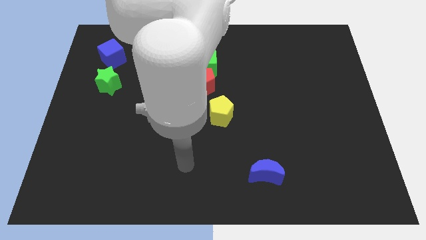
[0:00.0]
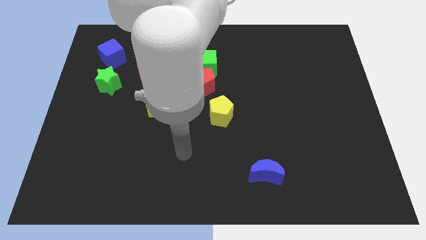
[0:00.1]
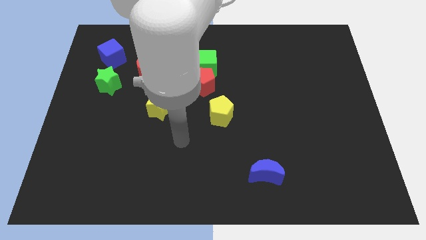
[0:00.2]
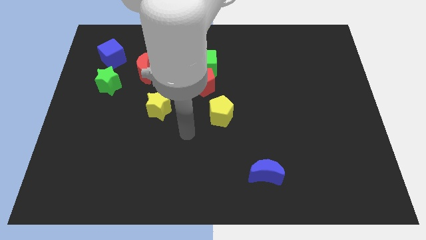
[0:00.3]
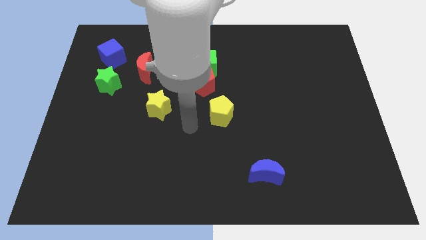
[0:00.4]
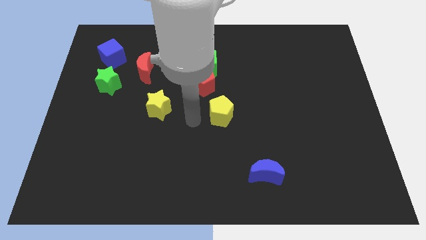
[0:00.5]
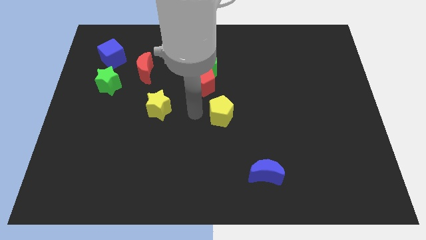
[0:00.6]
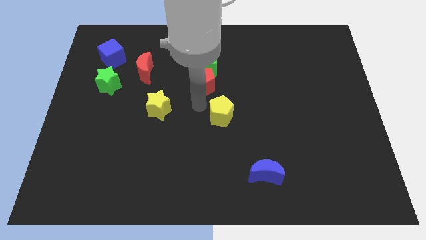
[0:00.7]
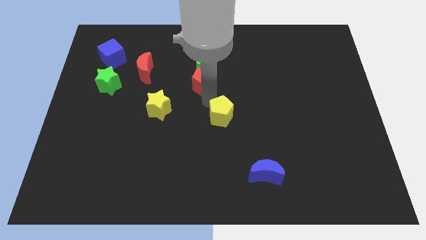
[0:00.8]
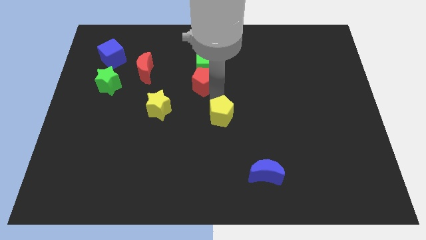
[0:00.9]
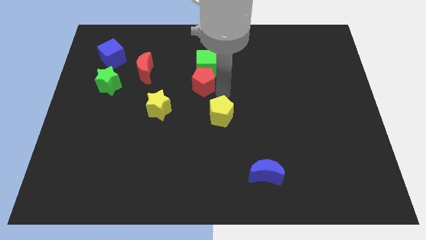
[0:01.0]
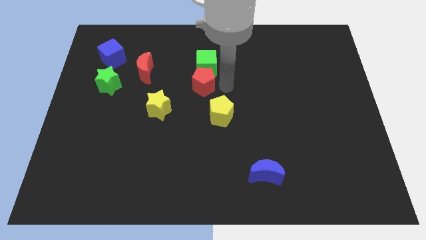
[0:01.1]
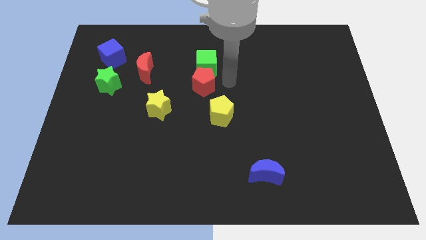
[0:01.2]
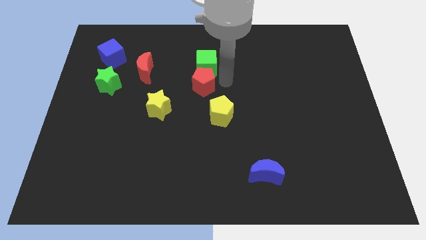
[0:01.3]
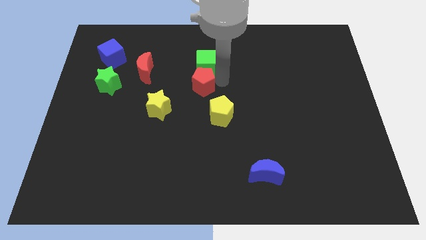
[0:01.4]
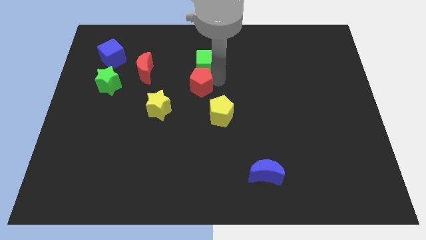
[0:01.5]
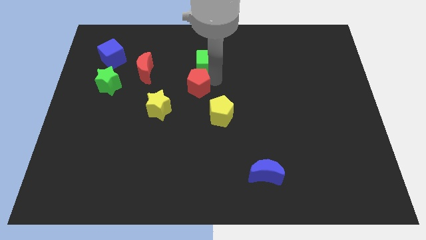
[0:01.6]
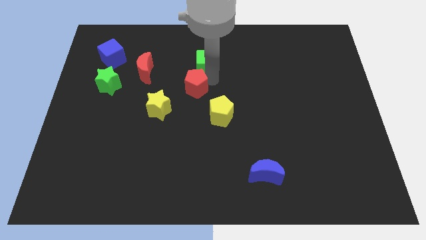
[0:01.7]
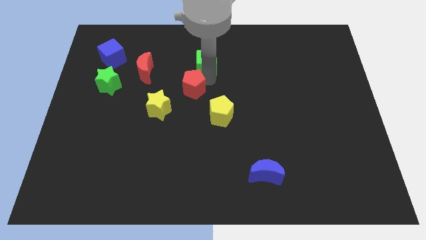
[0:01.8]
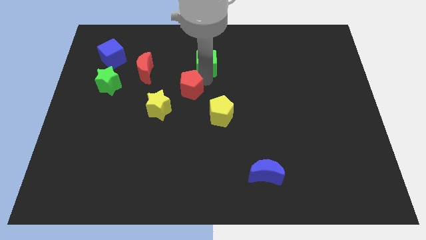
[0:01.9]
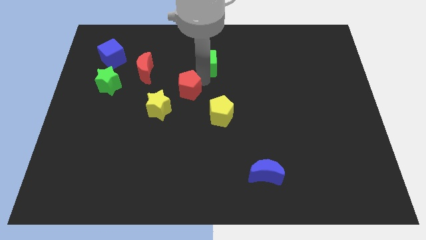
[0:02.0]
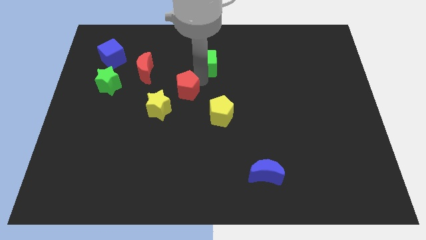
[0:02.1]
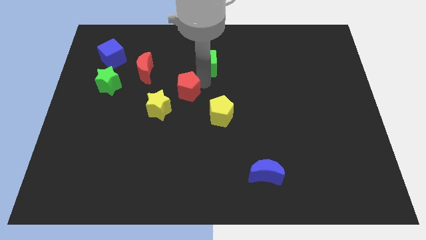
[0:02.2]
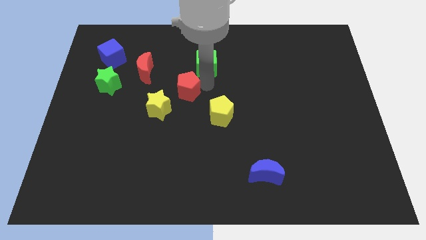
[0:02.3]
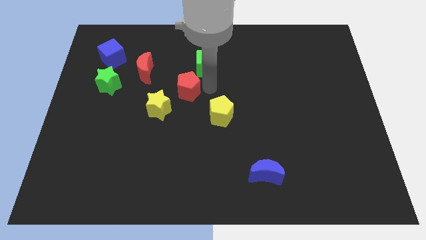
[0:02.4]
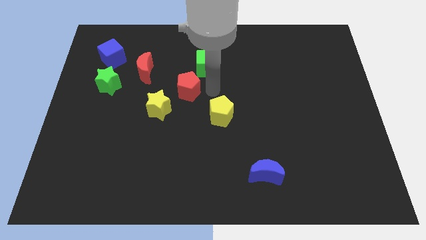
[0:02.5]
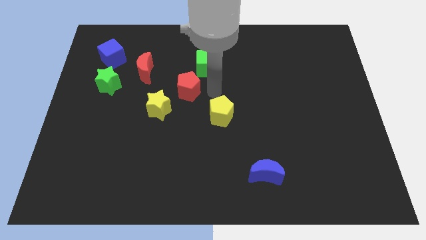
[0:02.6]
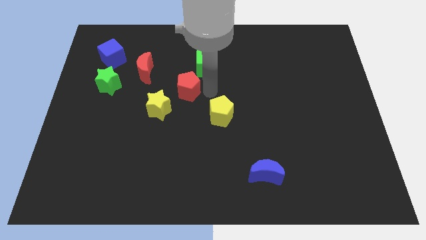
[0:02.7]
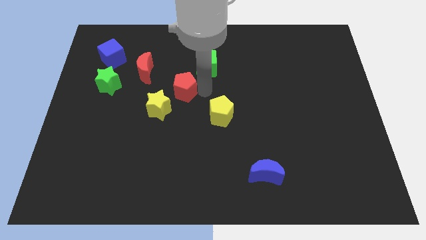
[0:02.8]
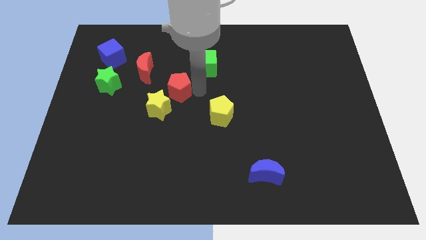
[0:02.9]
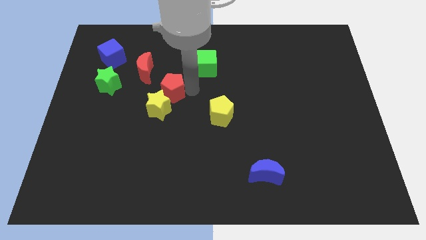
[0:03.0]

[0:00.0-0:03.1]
push the red pentagon left a little bit

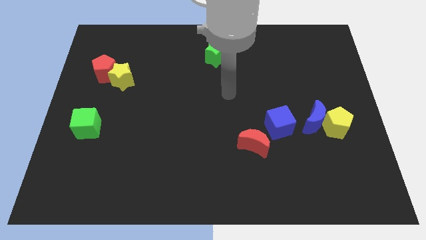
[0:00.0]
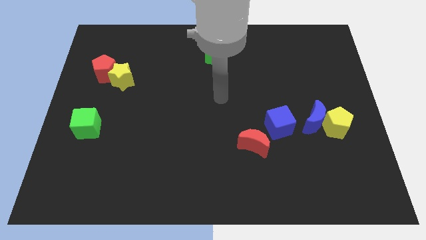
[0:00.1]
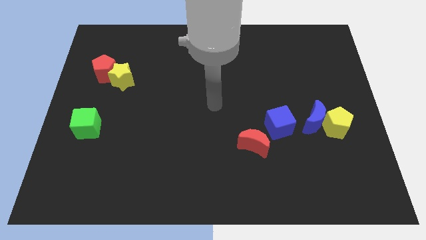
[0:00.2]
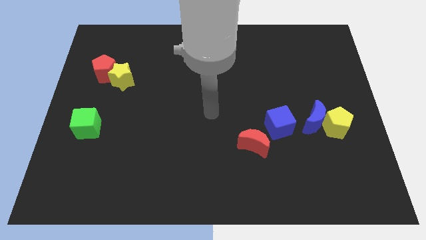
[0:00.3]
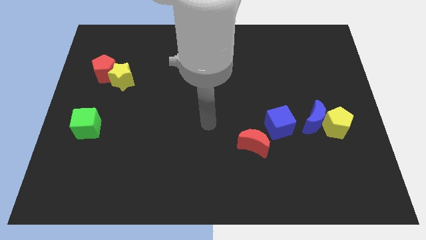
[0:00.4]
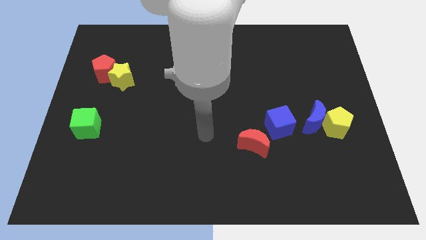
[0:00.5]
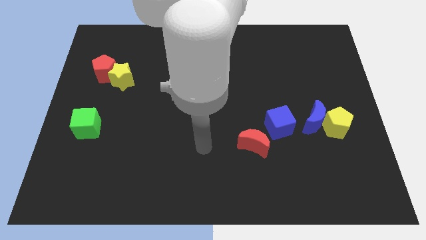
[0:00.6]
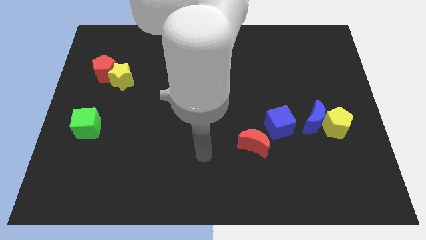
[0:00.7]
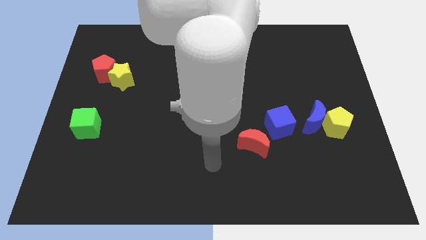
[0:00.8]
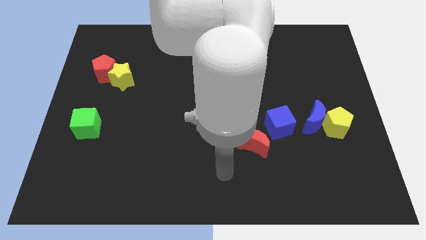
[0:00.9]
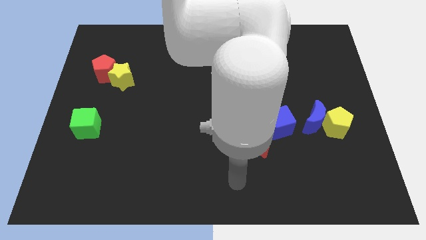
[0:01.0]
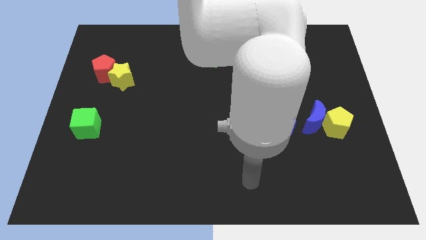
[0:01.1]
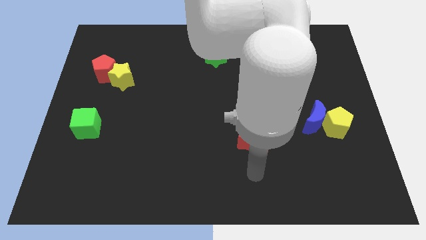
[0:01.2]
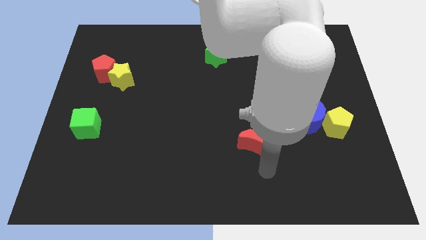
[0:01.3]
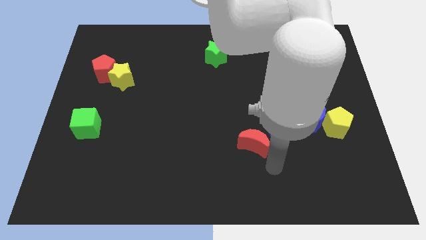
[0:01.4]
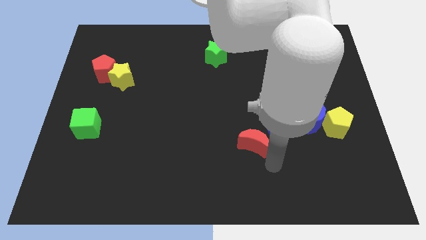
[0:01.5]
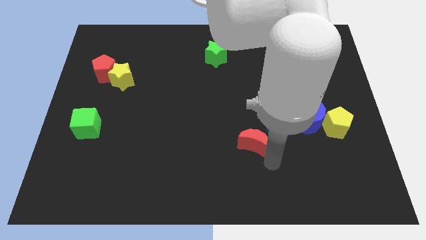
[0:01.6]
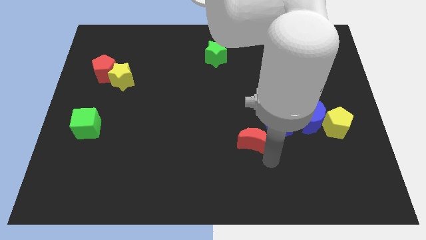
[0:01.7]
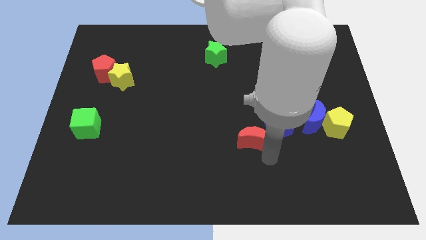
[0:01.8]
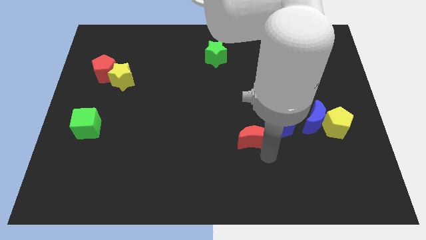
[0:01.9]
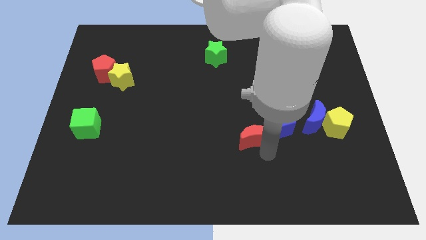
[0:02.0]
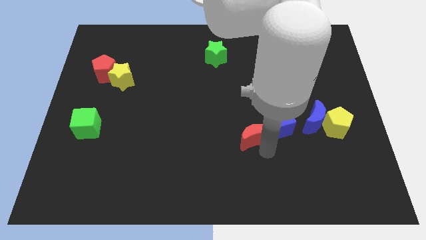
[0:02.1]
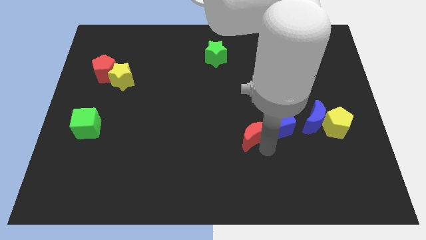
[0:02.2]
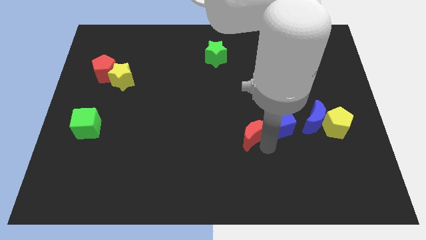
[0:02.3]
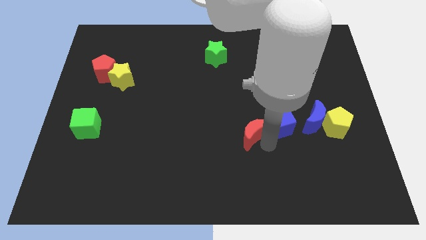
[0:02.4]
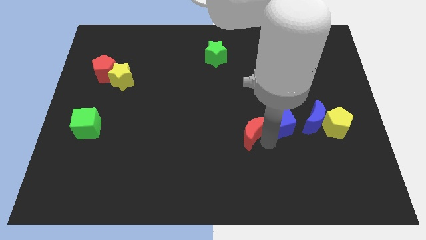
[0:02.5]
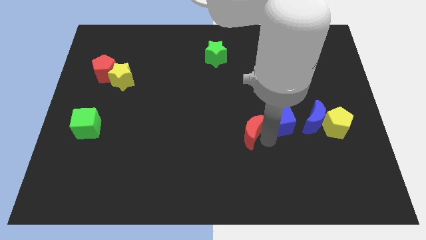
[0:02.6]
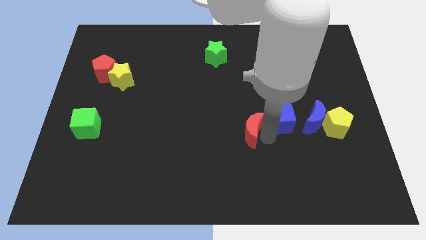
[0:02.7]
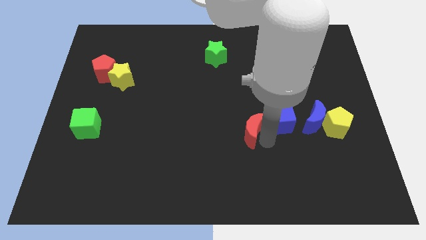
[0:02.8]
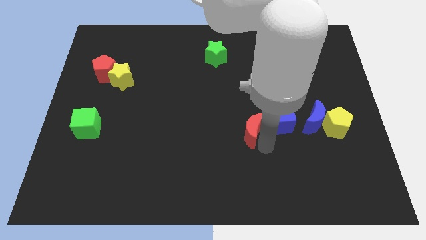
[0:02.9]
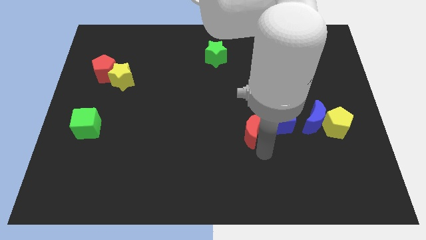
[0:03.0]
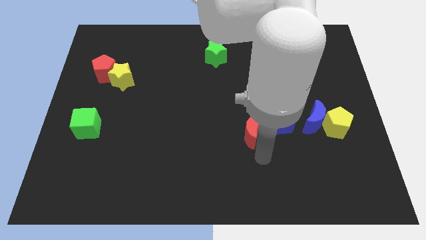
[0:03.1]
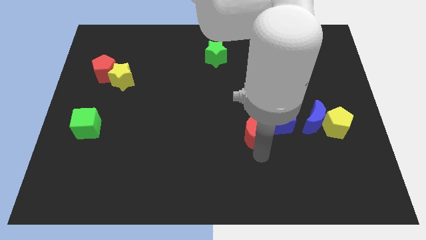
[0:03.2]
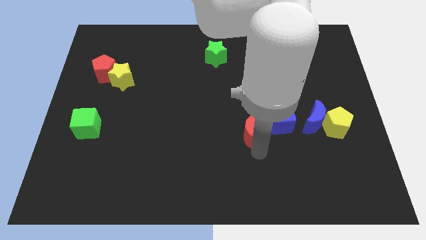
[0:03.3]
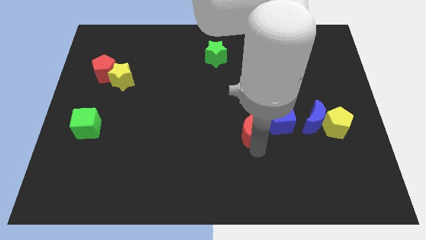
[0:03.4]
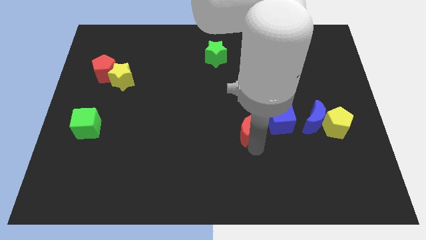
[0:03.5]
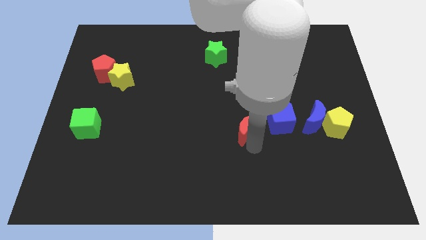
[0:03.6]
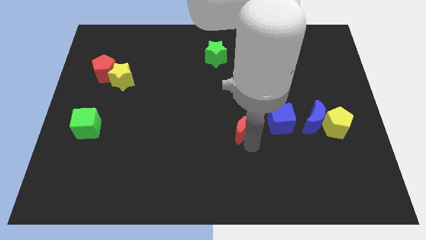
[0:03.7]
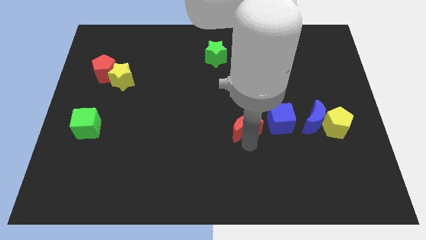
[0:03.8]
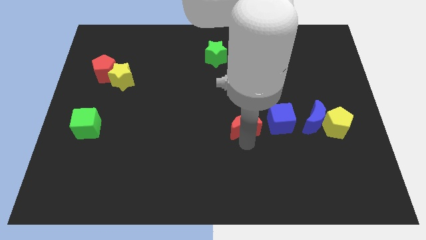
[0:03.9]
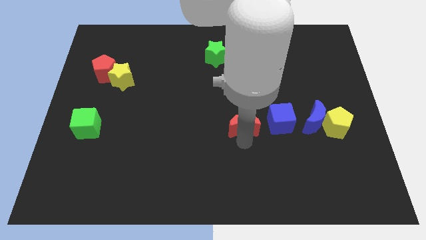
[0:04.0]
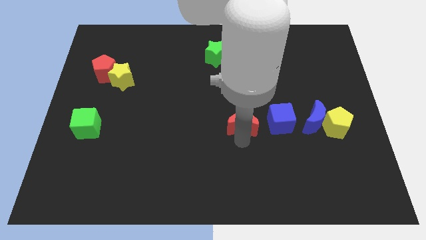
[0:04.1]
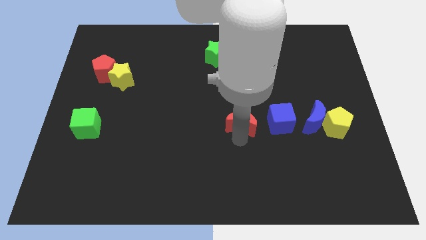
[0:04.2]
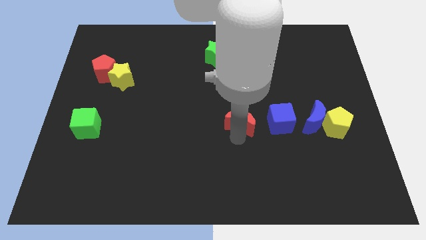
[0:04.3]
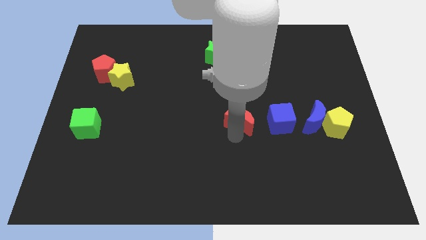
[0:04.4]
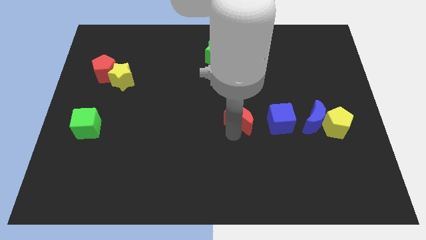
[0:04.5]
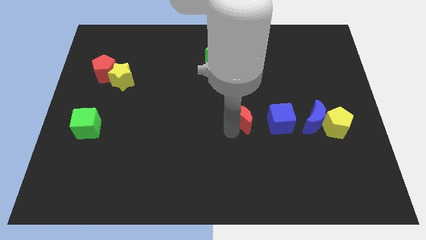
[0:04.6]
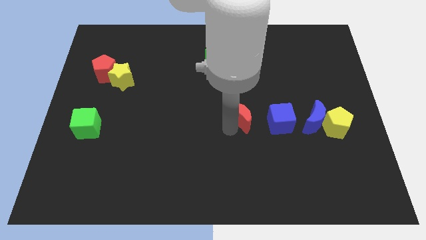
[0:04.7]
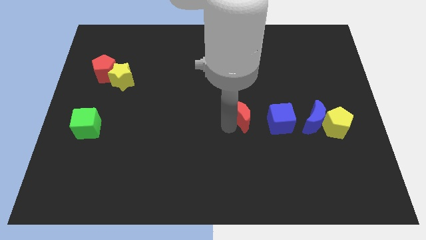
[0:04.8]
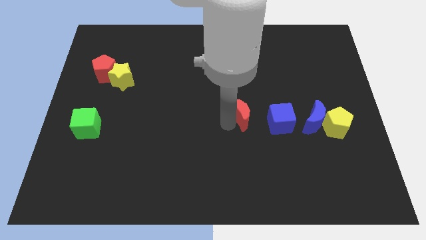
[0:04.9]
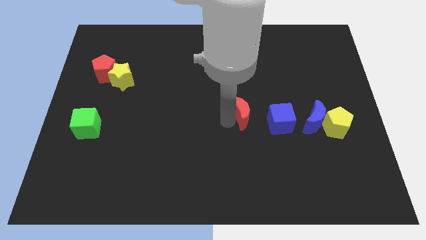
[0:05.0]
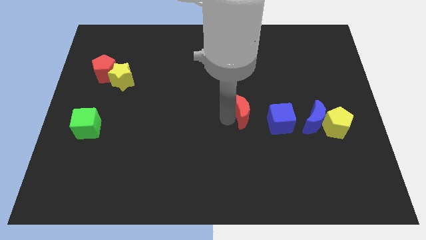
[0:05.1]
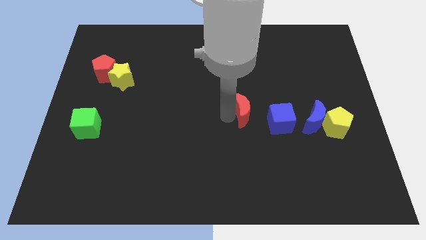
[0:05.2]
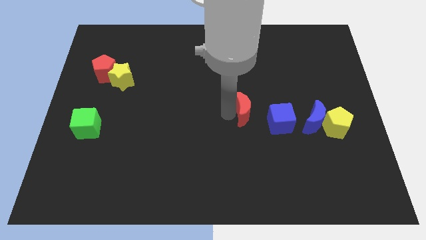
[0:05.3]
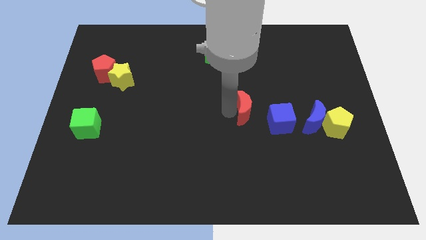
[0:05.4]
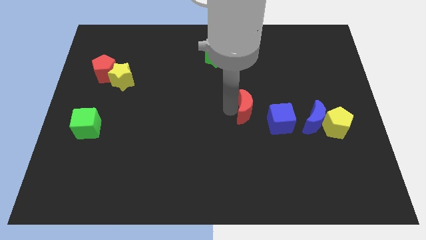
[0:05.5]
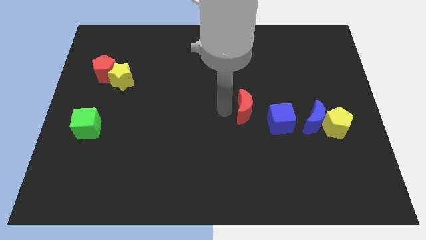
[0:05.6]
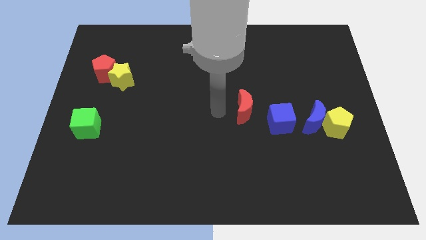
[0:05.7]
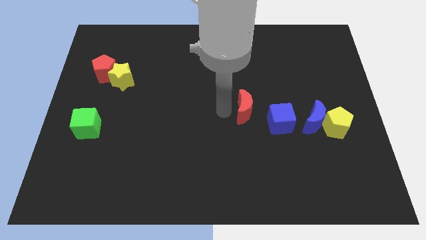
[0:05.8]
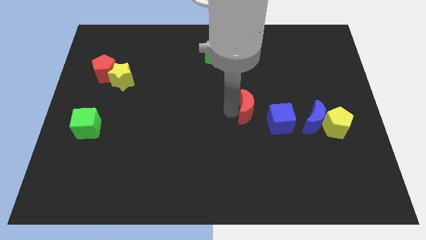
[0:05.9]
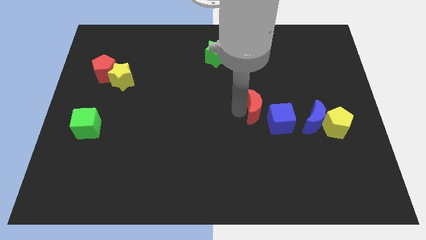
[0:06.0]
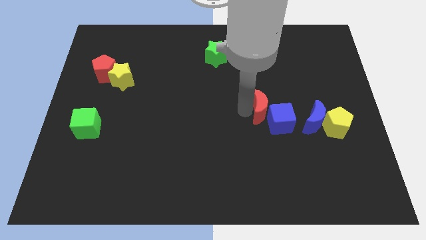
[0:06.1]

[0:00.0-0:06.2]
slightly push the red moon upwards and right diagonally
